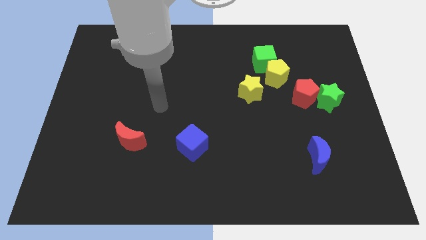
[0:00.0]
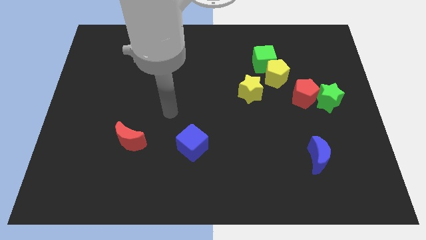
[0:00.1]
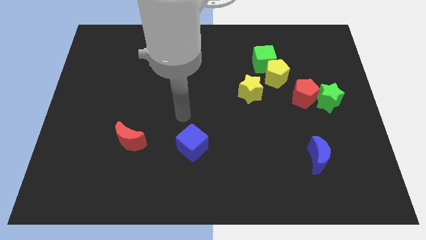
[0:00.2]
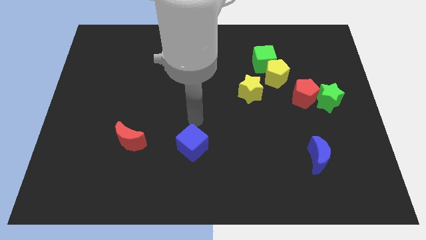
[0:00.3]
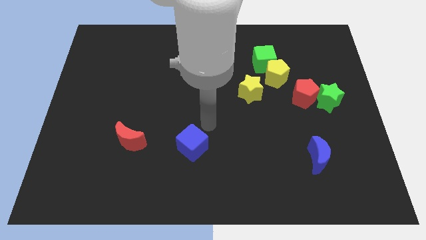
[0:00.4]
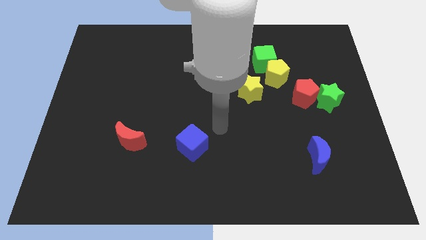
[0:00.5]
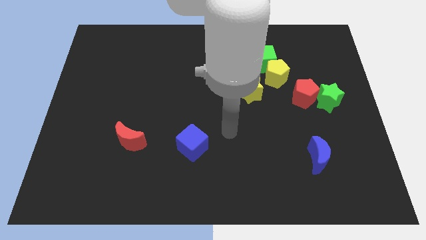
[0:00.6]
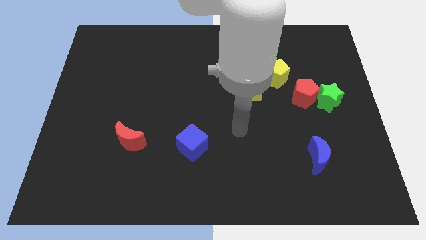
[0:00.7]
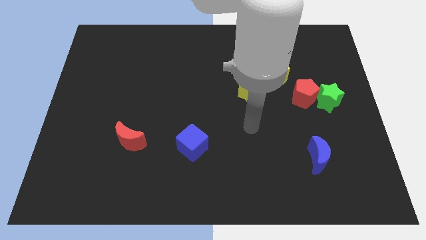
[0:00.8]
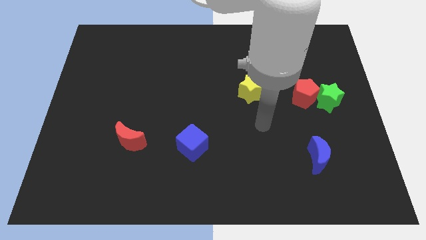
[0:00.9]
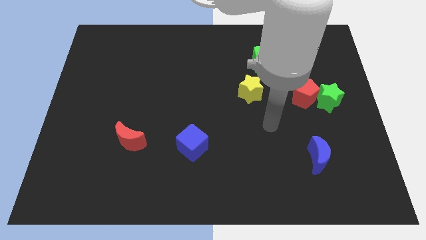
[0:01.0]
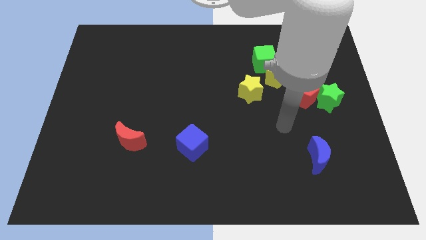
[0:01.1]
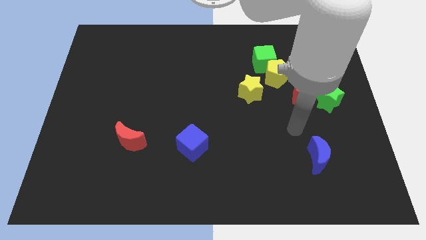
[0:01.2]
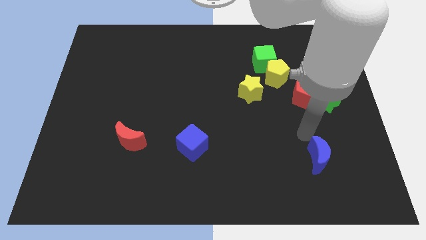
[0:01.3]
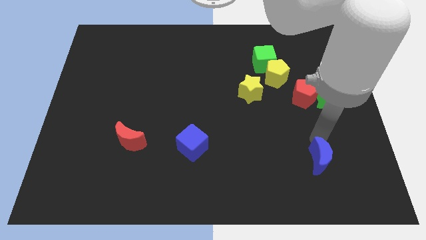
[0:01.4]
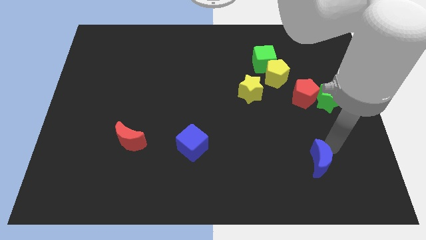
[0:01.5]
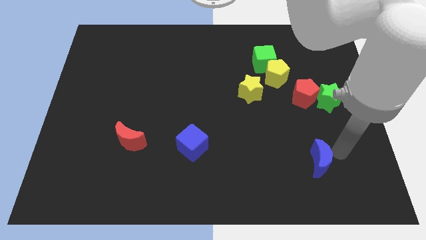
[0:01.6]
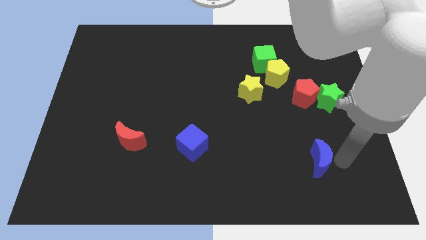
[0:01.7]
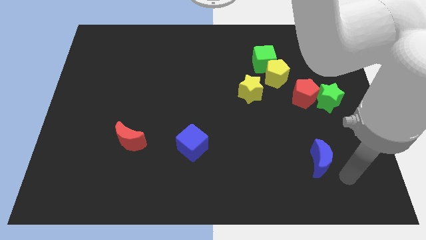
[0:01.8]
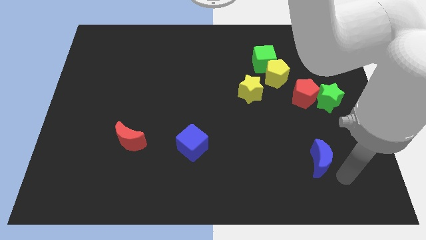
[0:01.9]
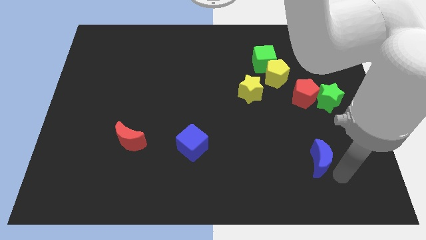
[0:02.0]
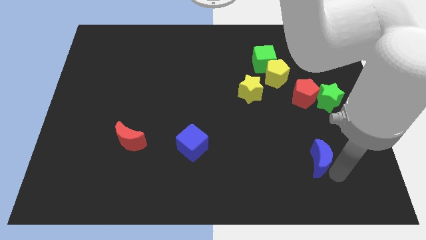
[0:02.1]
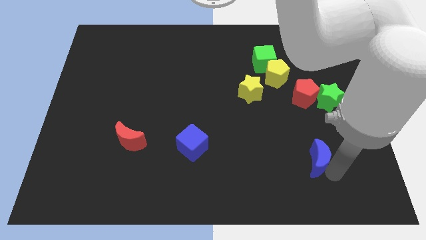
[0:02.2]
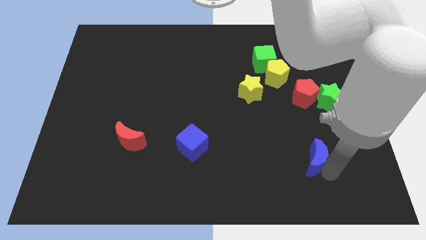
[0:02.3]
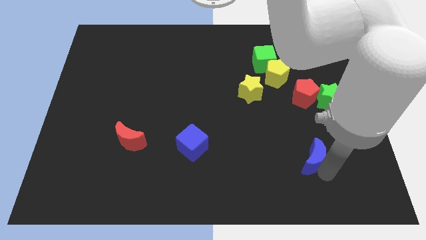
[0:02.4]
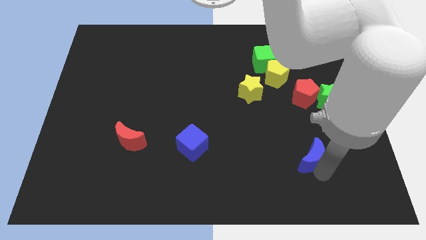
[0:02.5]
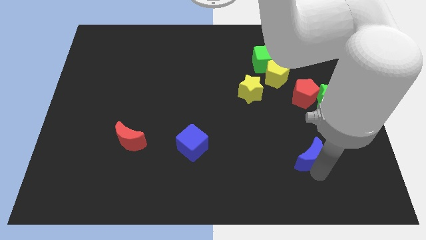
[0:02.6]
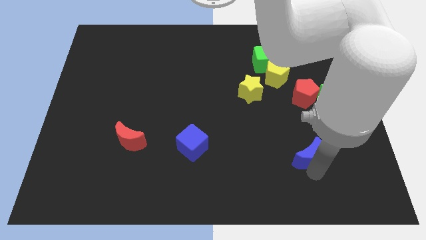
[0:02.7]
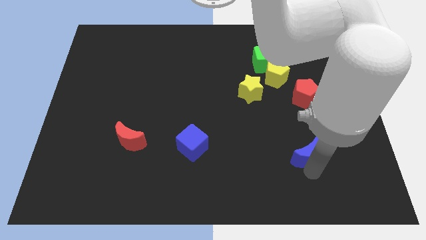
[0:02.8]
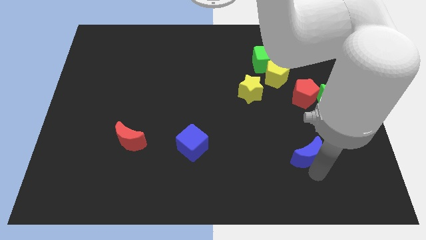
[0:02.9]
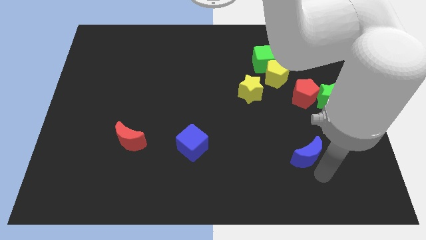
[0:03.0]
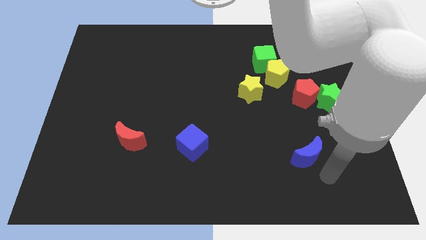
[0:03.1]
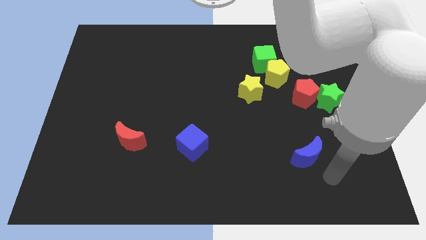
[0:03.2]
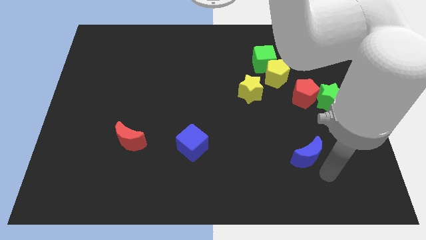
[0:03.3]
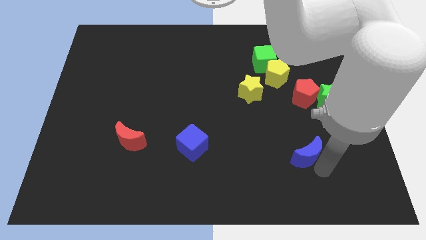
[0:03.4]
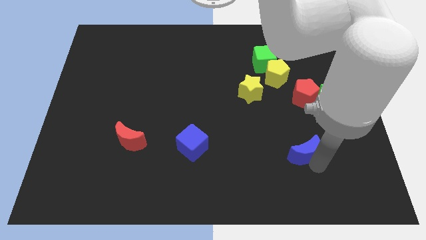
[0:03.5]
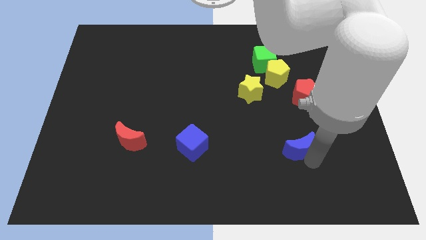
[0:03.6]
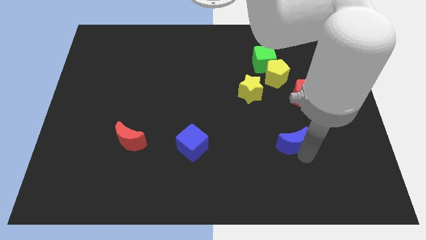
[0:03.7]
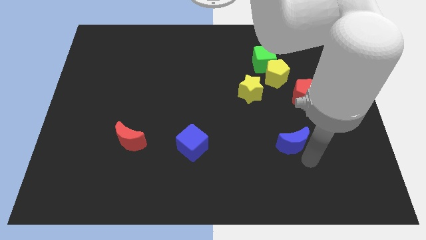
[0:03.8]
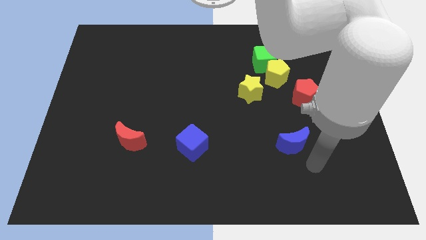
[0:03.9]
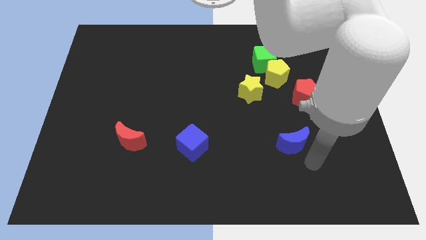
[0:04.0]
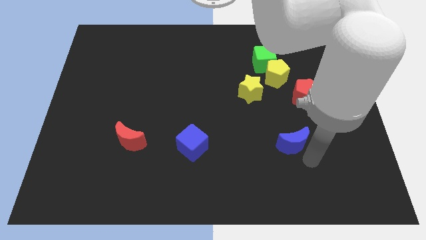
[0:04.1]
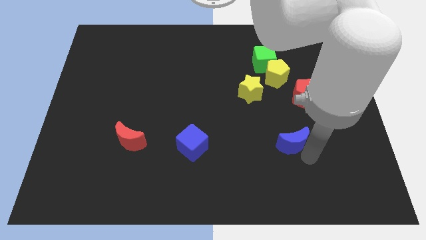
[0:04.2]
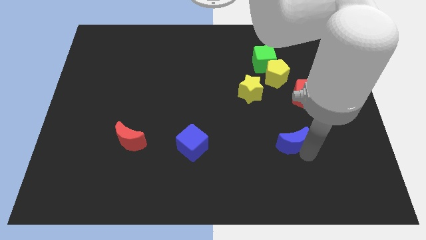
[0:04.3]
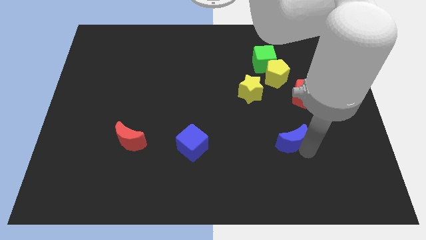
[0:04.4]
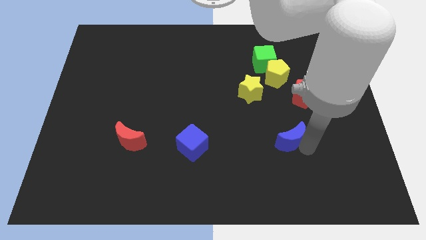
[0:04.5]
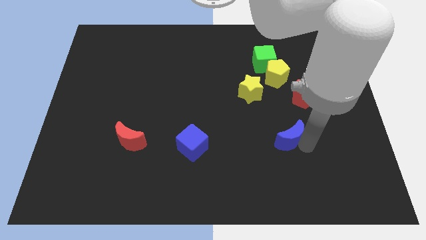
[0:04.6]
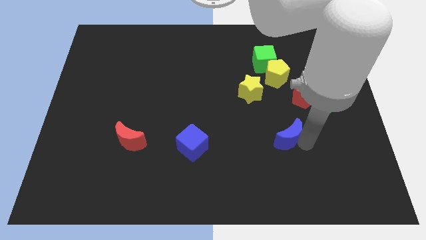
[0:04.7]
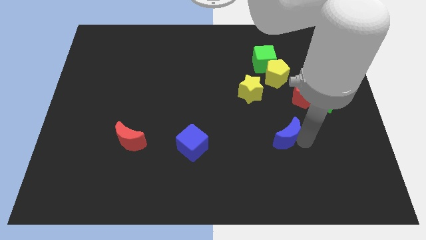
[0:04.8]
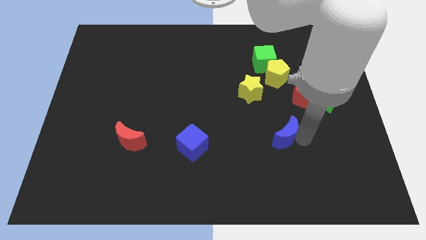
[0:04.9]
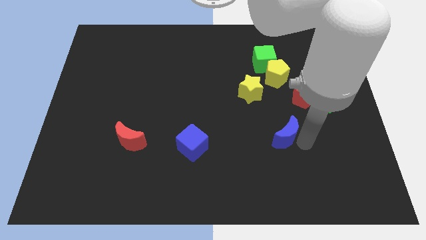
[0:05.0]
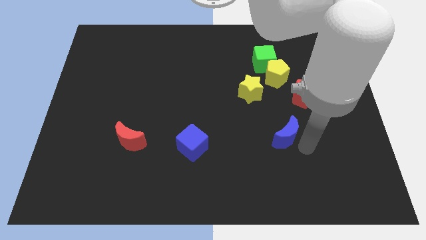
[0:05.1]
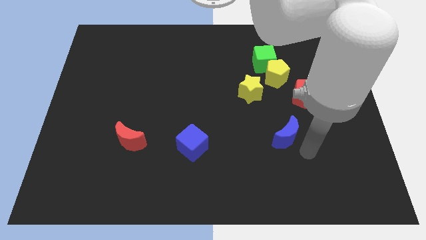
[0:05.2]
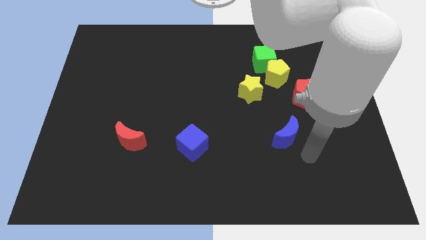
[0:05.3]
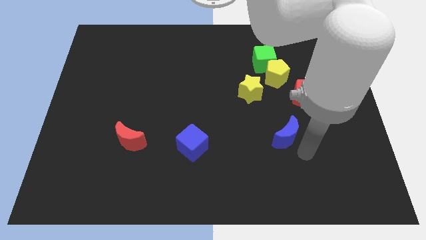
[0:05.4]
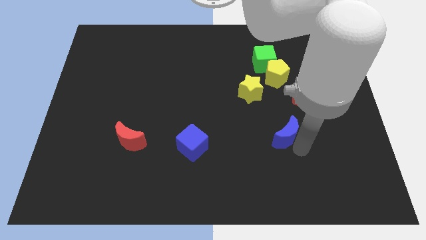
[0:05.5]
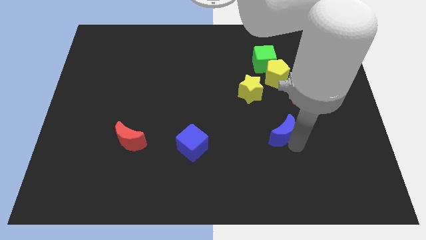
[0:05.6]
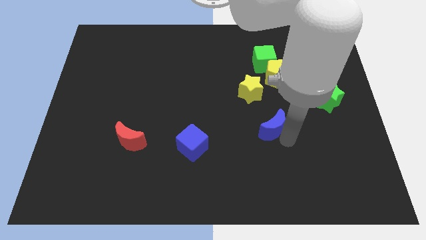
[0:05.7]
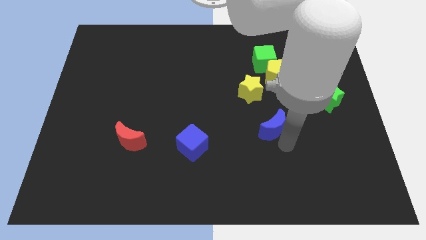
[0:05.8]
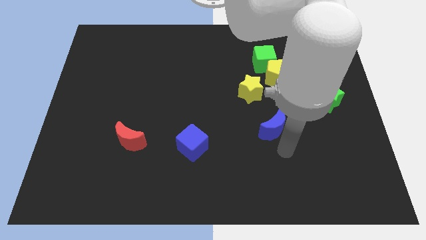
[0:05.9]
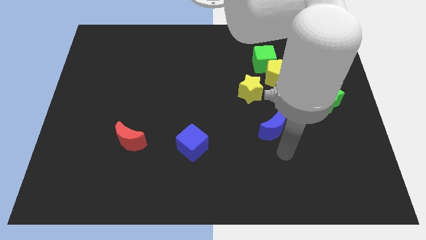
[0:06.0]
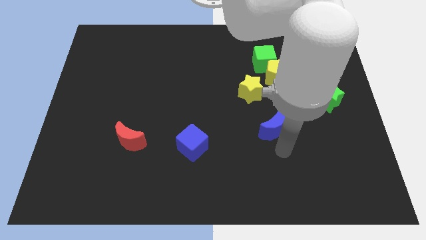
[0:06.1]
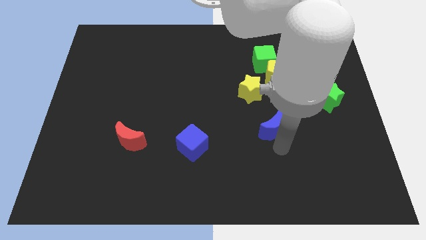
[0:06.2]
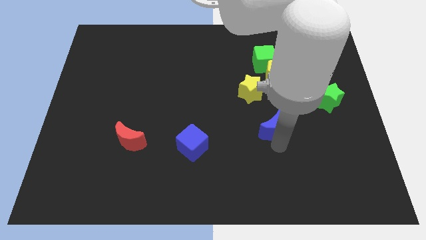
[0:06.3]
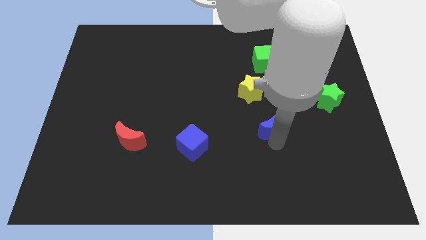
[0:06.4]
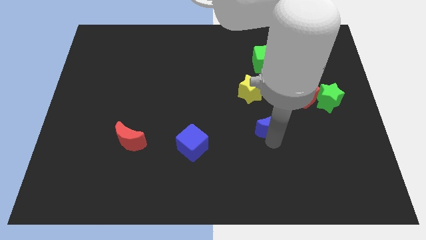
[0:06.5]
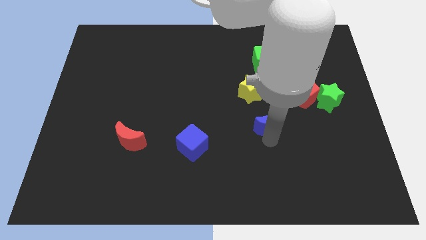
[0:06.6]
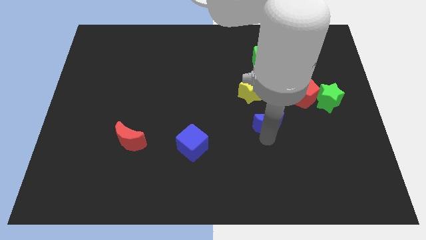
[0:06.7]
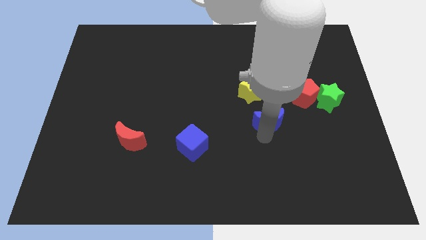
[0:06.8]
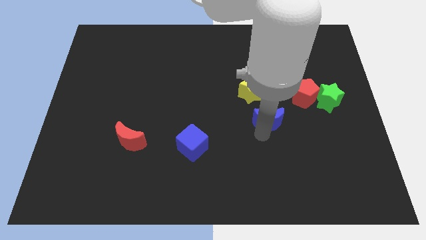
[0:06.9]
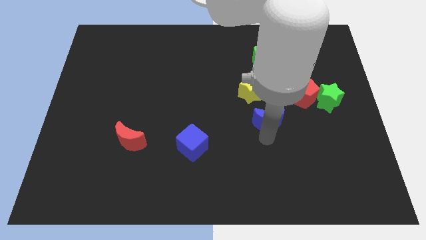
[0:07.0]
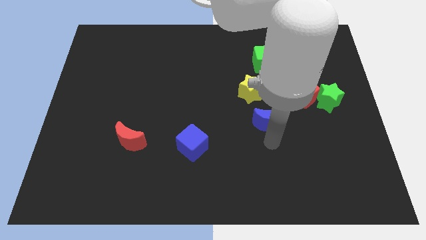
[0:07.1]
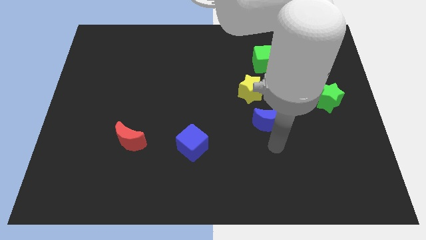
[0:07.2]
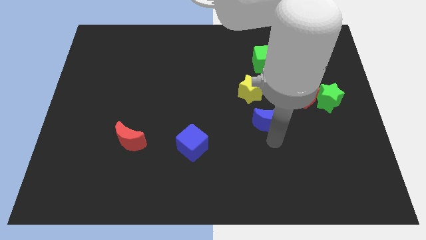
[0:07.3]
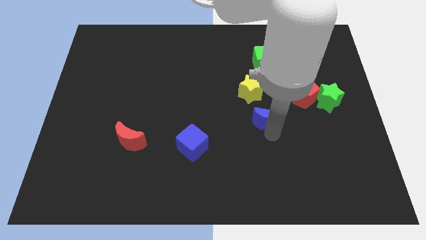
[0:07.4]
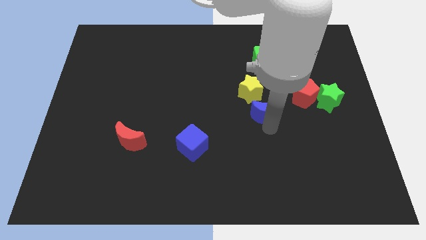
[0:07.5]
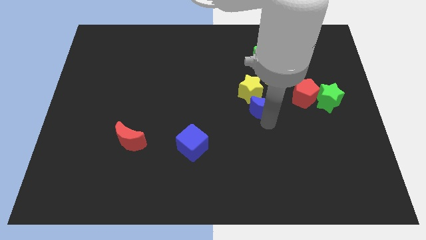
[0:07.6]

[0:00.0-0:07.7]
slide the blue moon next to the yellow star

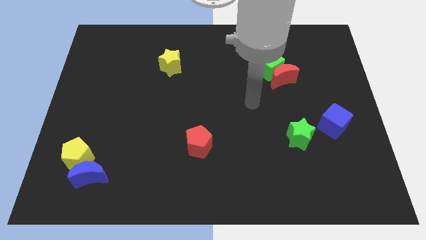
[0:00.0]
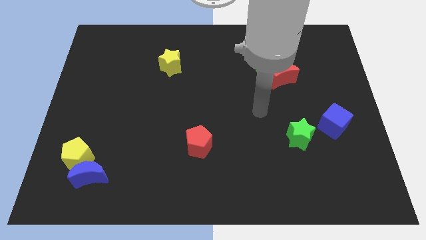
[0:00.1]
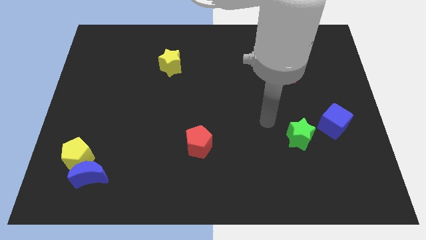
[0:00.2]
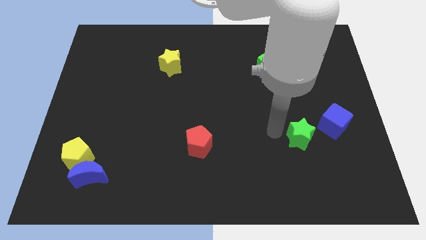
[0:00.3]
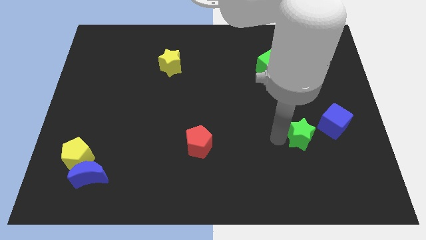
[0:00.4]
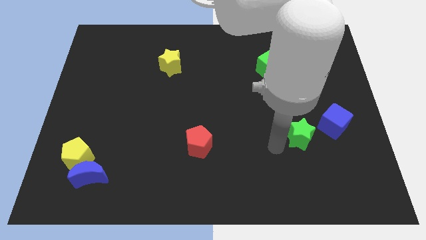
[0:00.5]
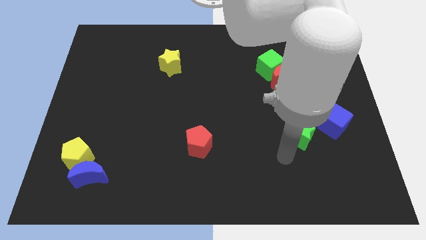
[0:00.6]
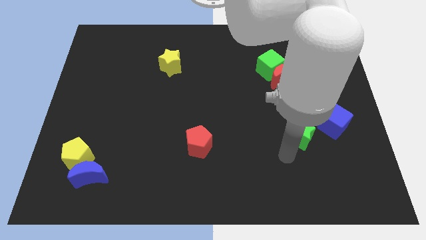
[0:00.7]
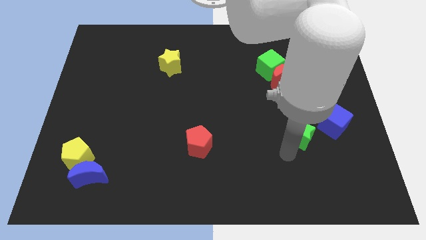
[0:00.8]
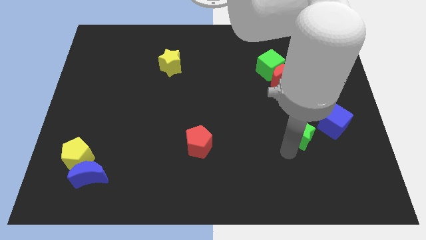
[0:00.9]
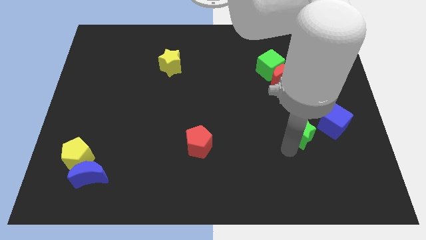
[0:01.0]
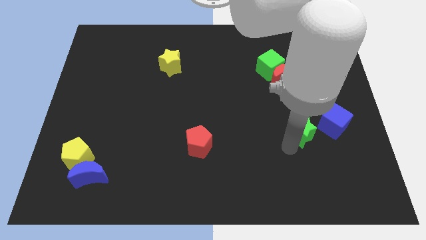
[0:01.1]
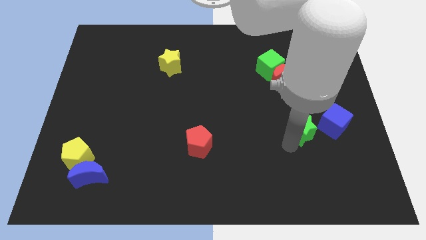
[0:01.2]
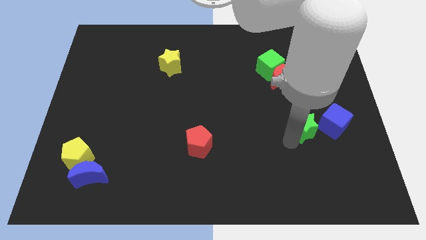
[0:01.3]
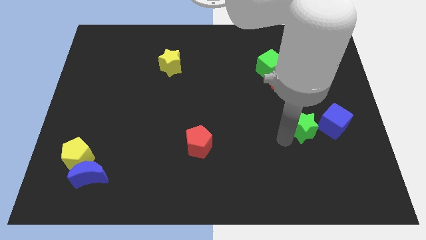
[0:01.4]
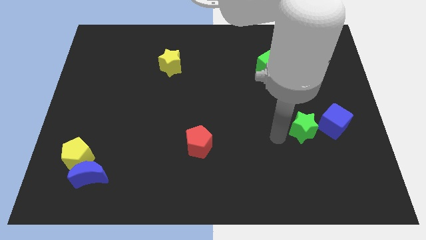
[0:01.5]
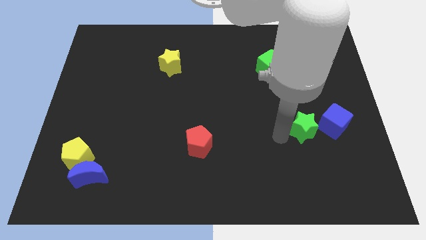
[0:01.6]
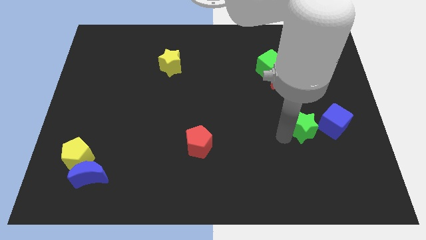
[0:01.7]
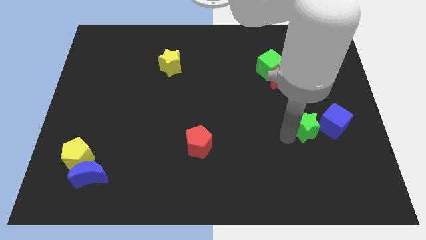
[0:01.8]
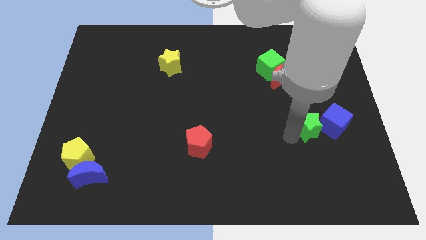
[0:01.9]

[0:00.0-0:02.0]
slide the green star next to the blue cube
